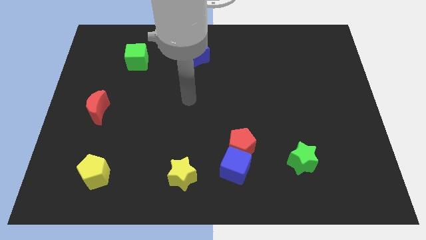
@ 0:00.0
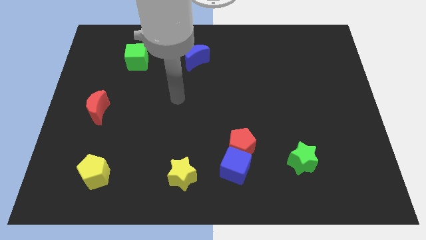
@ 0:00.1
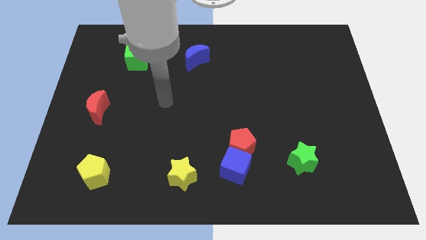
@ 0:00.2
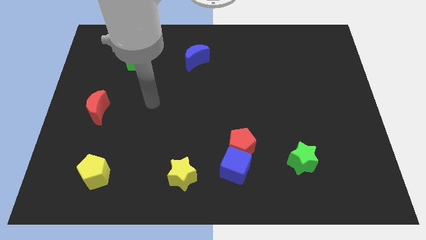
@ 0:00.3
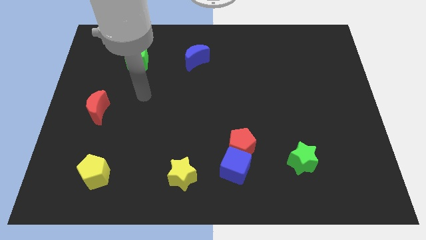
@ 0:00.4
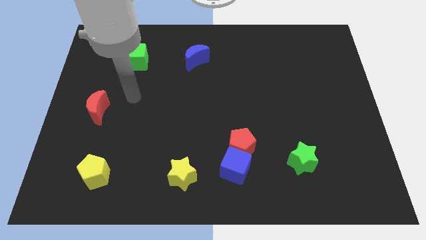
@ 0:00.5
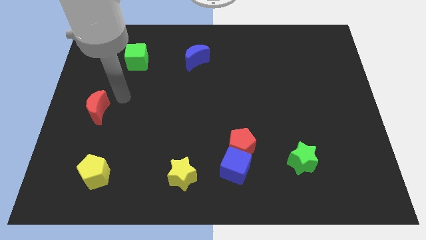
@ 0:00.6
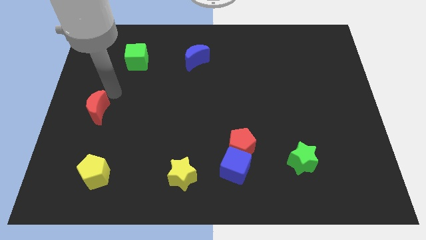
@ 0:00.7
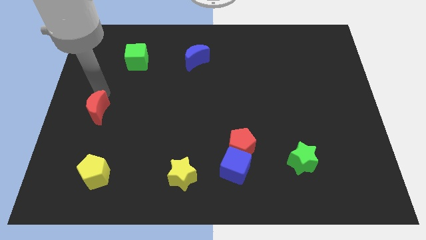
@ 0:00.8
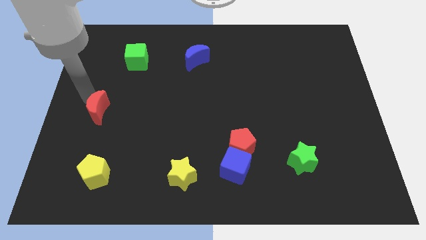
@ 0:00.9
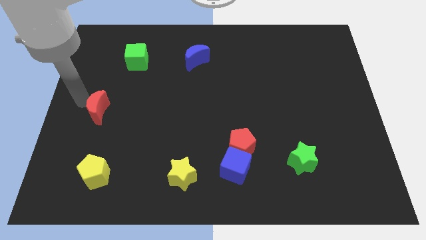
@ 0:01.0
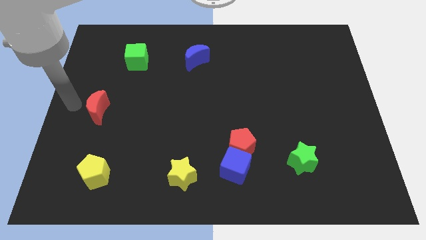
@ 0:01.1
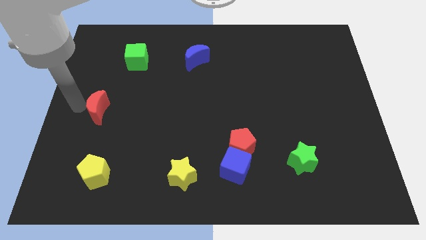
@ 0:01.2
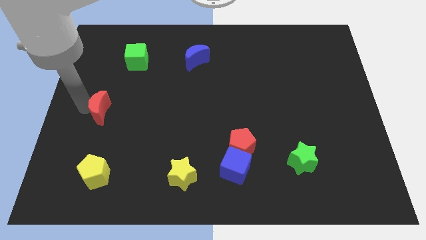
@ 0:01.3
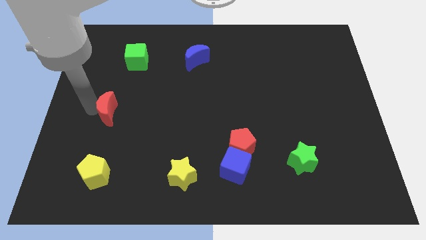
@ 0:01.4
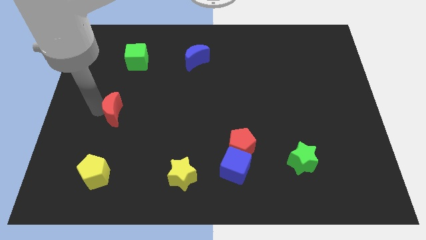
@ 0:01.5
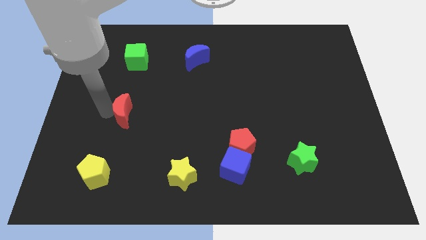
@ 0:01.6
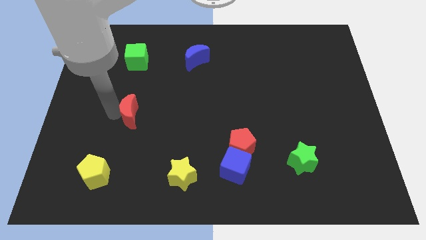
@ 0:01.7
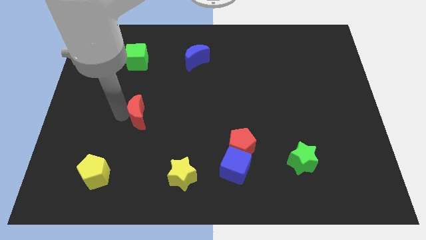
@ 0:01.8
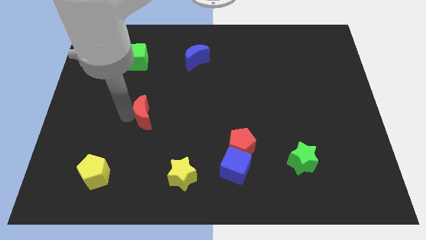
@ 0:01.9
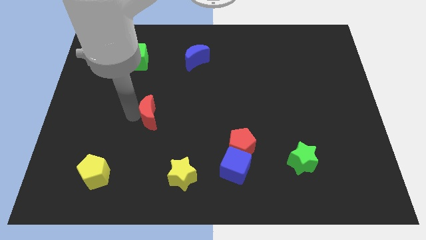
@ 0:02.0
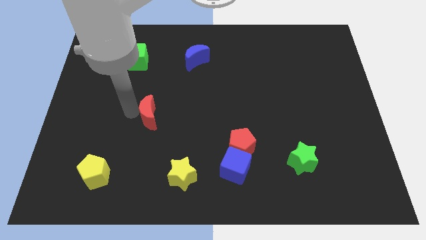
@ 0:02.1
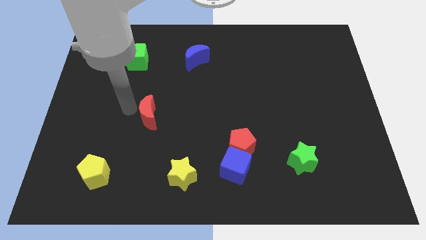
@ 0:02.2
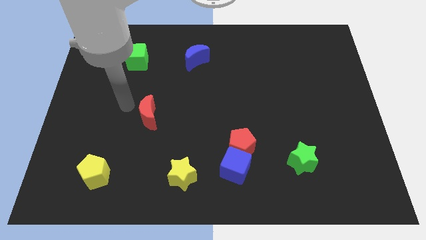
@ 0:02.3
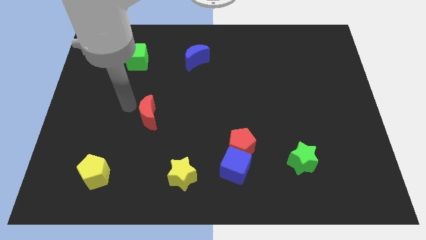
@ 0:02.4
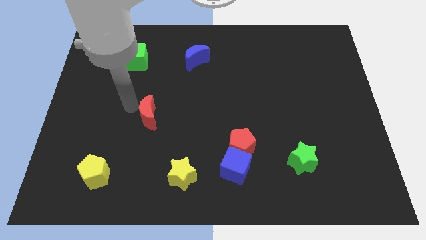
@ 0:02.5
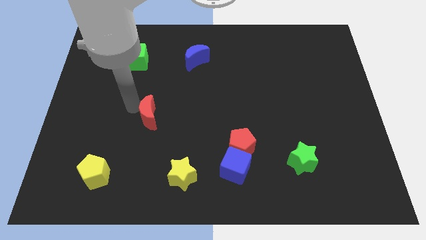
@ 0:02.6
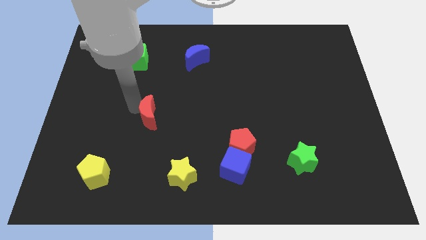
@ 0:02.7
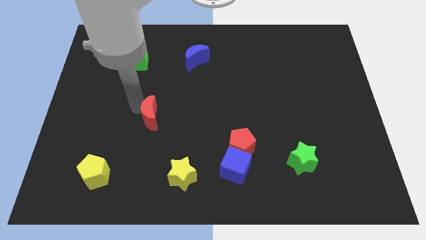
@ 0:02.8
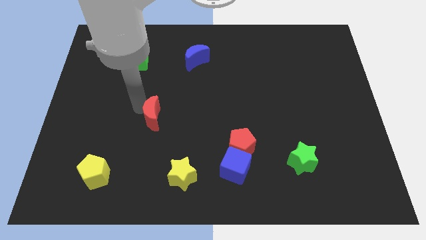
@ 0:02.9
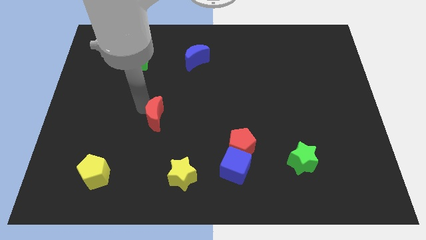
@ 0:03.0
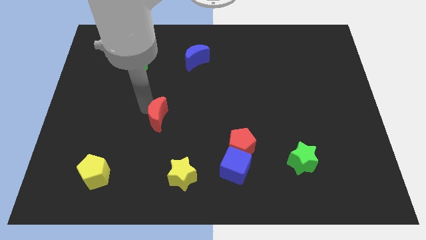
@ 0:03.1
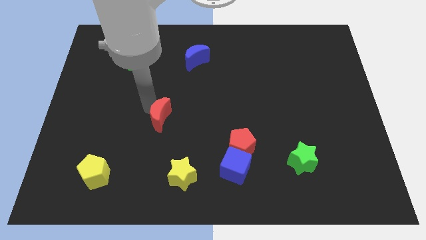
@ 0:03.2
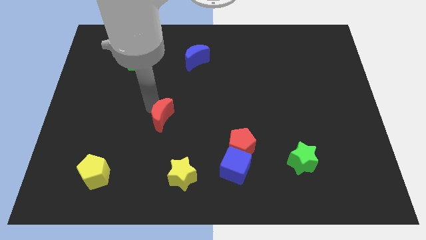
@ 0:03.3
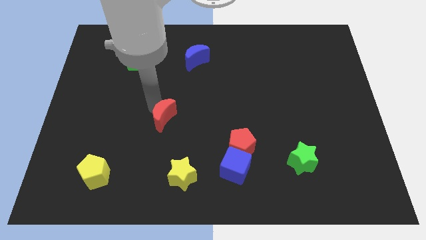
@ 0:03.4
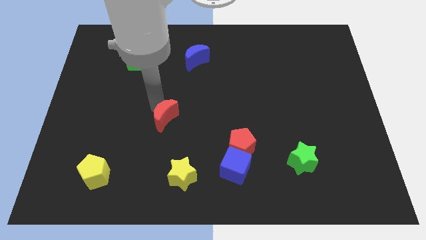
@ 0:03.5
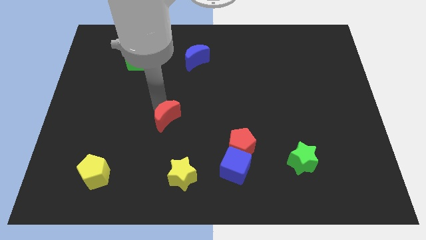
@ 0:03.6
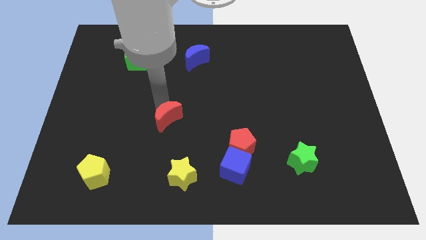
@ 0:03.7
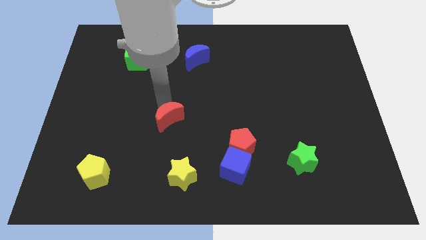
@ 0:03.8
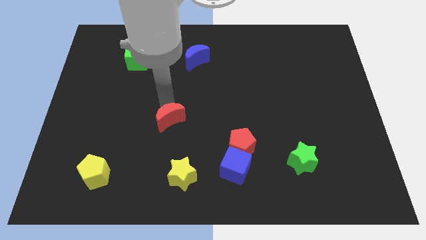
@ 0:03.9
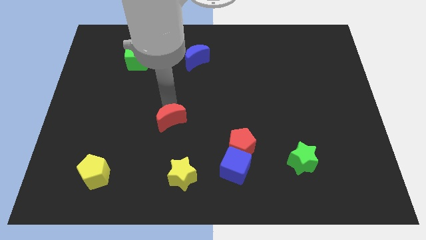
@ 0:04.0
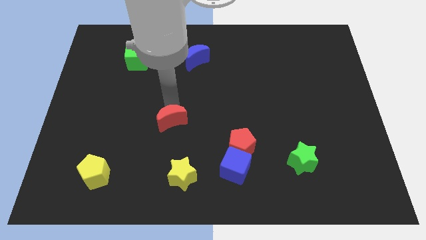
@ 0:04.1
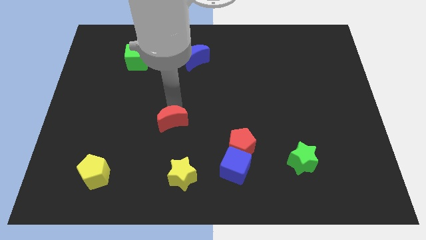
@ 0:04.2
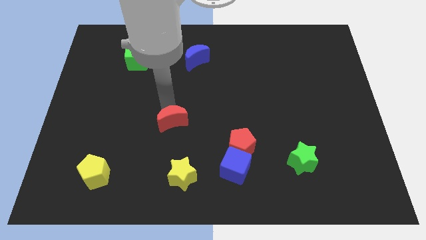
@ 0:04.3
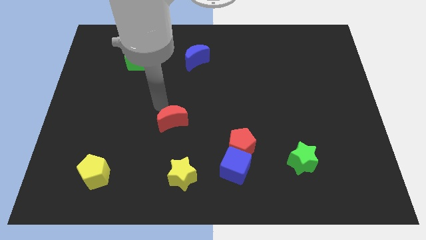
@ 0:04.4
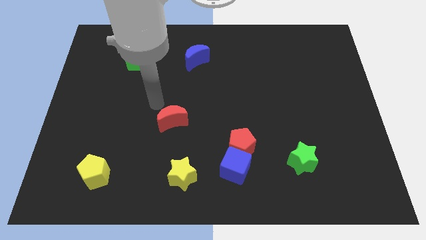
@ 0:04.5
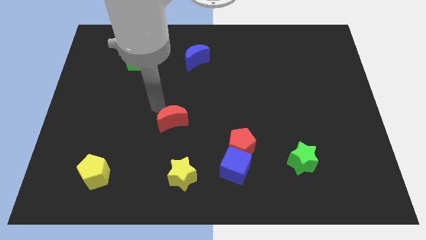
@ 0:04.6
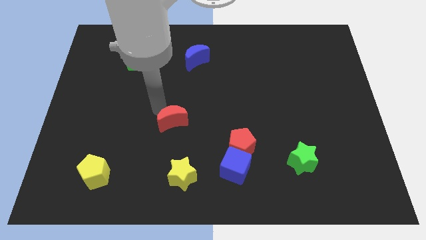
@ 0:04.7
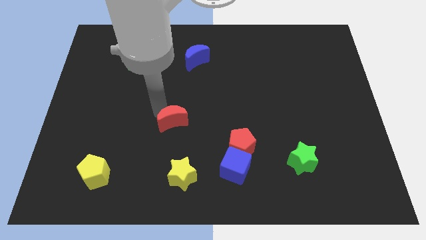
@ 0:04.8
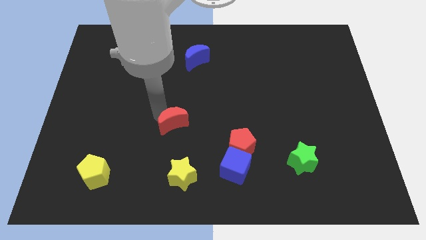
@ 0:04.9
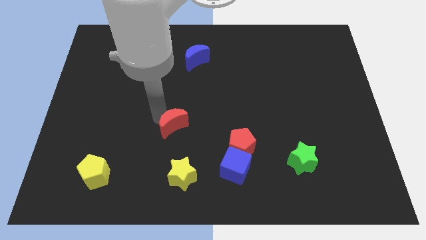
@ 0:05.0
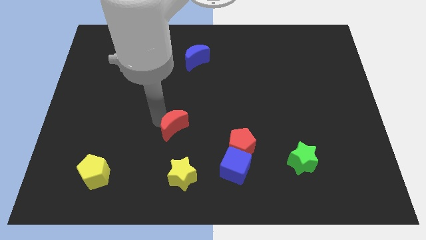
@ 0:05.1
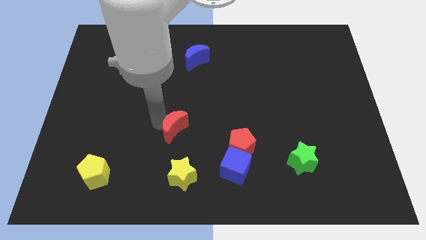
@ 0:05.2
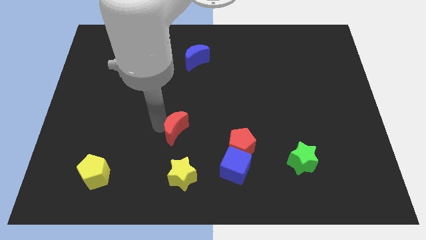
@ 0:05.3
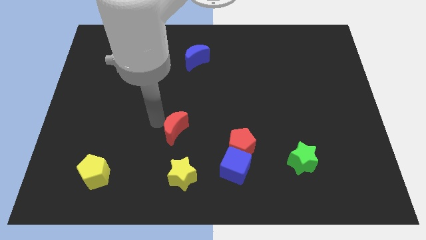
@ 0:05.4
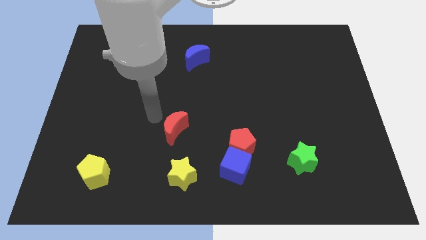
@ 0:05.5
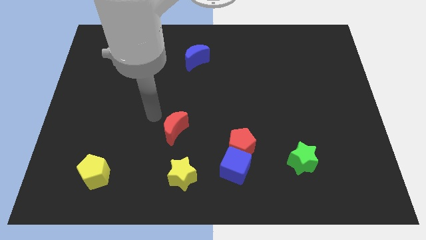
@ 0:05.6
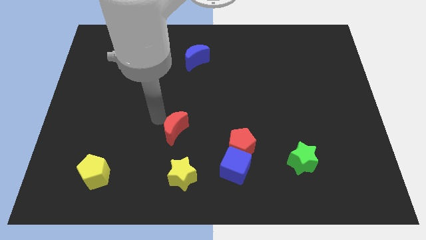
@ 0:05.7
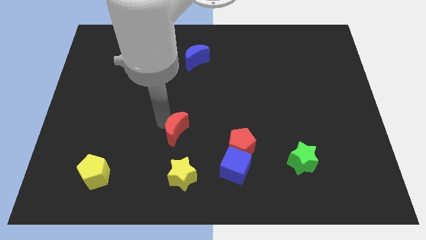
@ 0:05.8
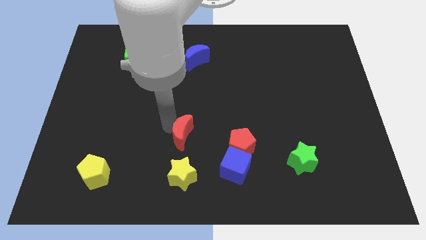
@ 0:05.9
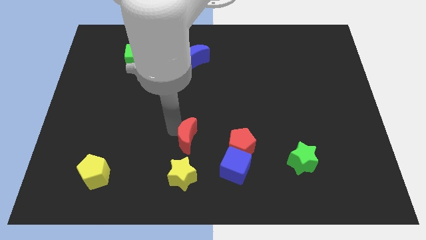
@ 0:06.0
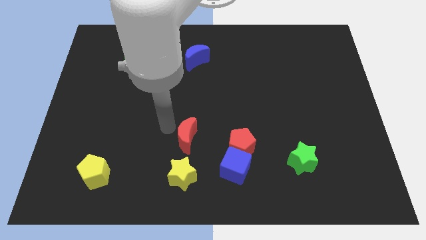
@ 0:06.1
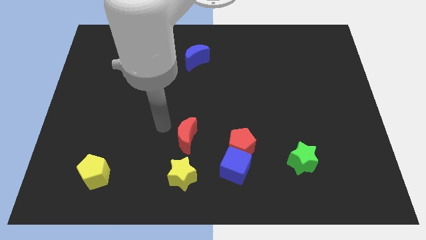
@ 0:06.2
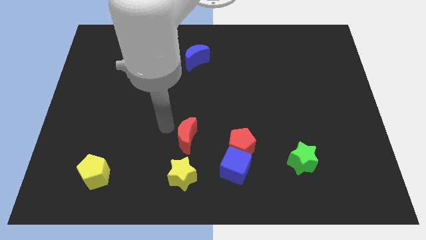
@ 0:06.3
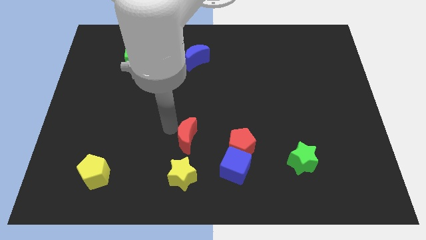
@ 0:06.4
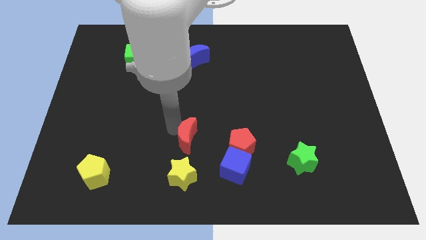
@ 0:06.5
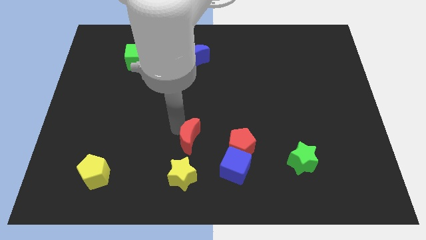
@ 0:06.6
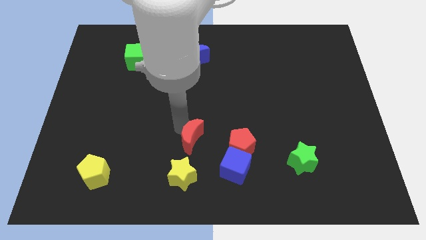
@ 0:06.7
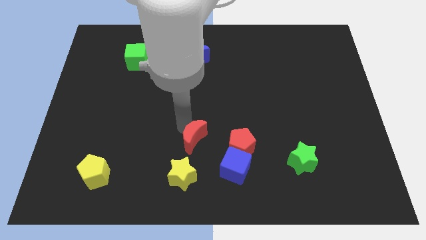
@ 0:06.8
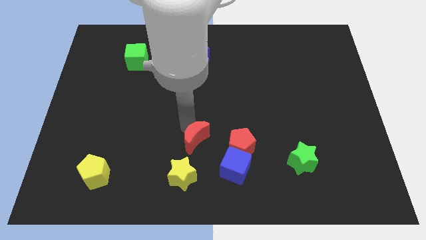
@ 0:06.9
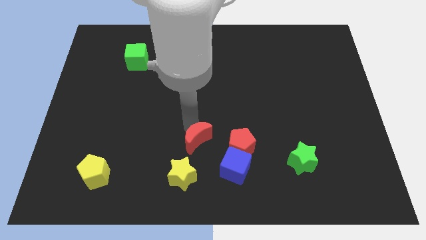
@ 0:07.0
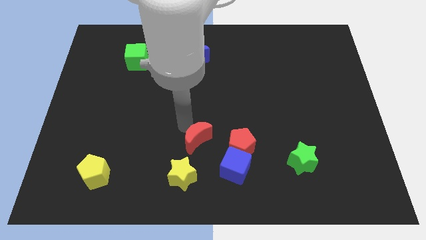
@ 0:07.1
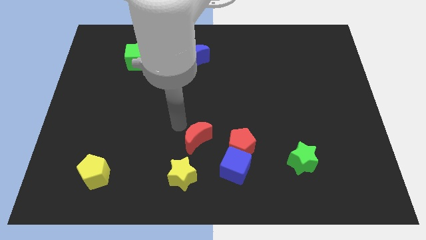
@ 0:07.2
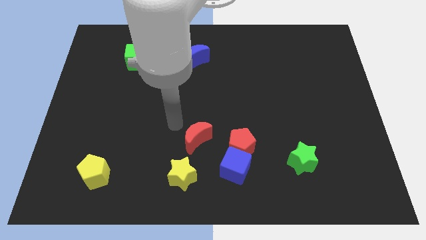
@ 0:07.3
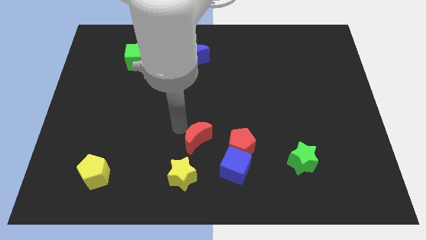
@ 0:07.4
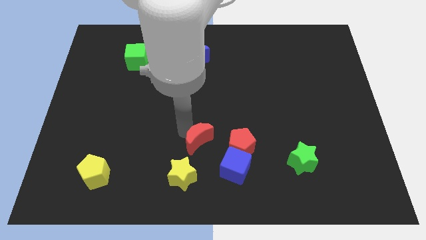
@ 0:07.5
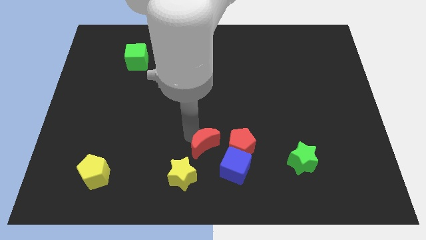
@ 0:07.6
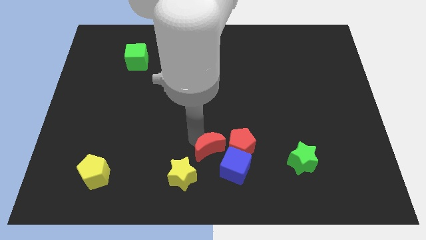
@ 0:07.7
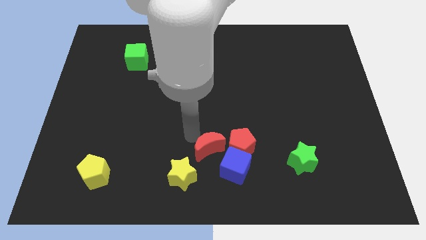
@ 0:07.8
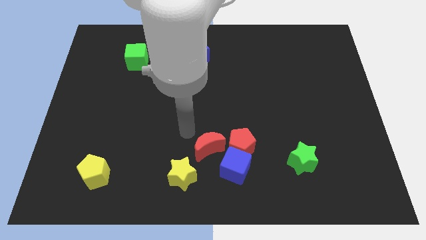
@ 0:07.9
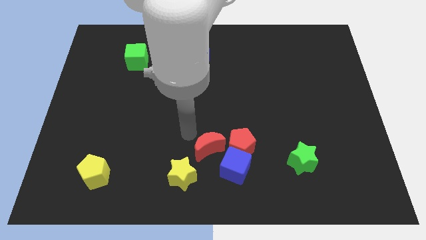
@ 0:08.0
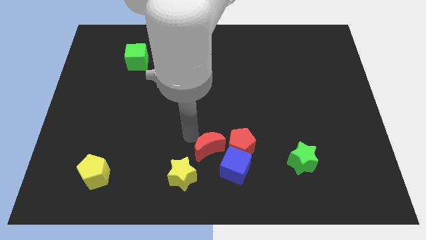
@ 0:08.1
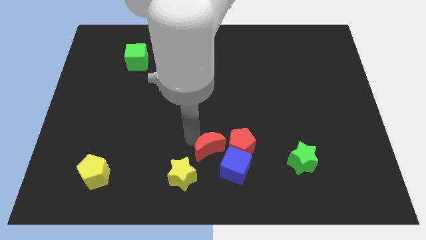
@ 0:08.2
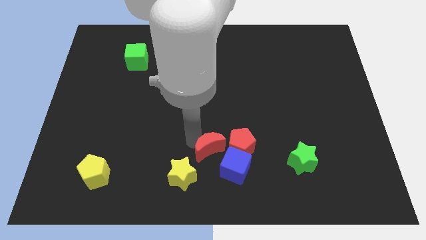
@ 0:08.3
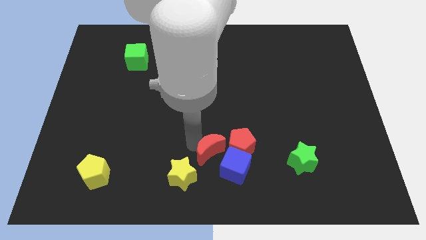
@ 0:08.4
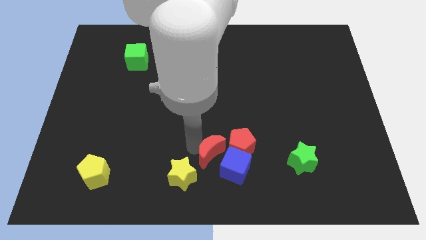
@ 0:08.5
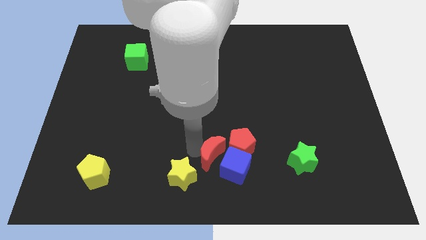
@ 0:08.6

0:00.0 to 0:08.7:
put the red moon towards the blue cube
